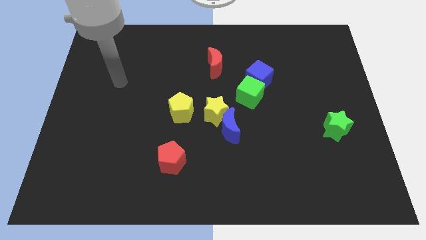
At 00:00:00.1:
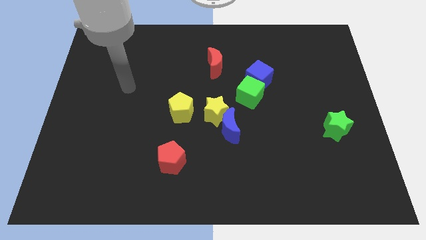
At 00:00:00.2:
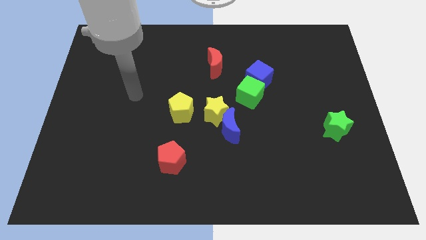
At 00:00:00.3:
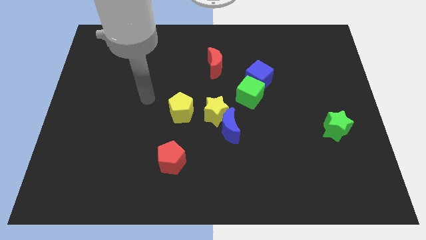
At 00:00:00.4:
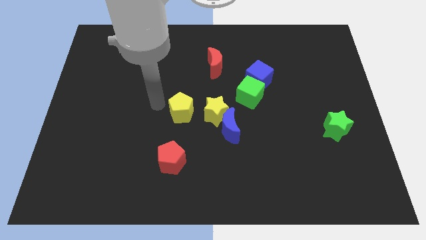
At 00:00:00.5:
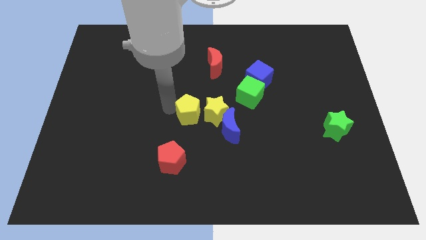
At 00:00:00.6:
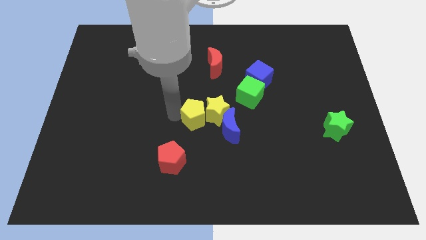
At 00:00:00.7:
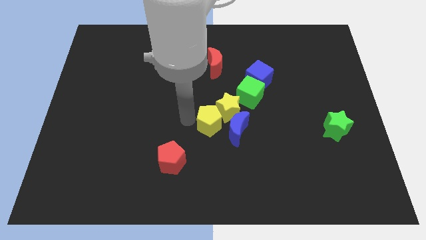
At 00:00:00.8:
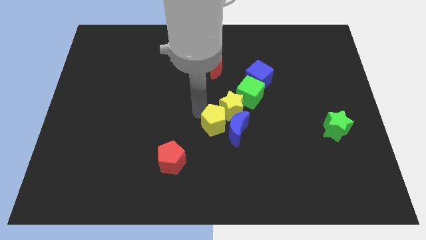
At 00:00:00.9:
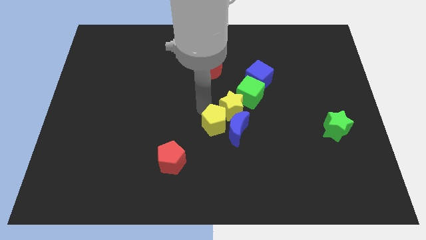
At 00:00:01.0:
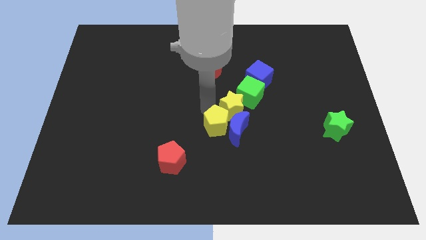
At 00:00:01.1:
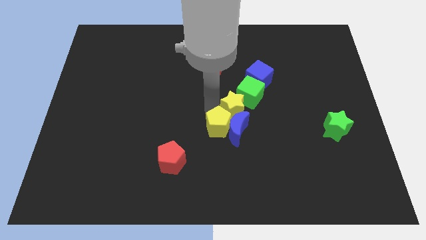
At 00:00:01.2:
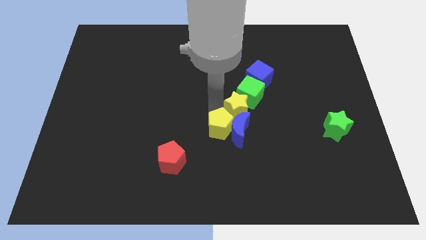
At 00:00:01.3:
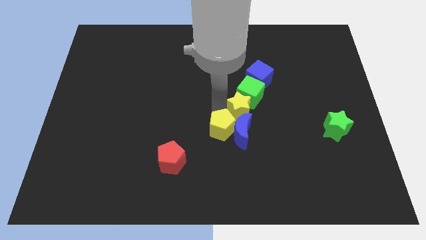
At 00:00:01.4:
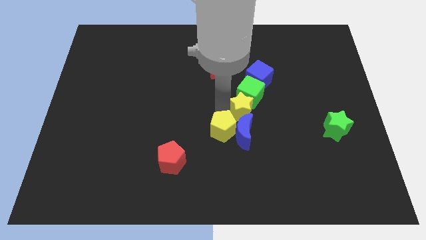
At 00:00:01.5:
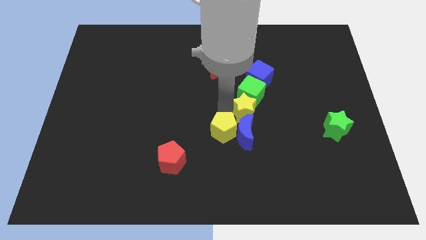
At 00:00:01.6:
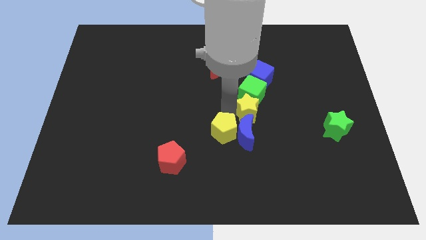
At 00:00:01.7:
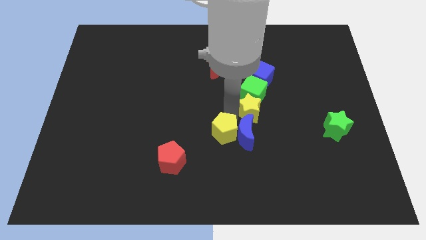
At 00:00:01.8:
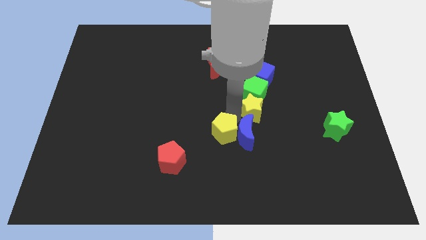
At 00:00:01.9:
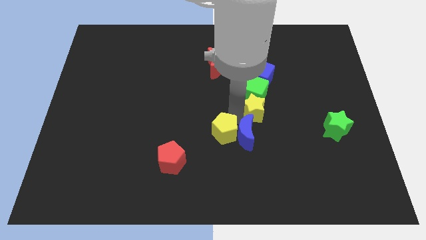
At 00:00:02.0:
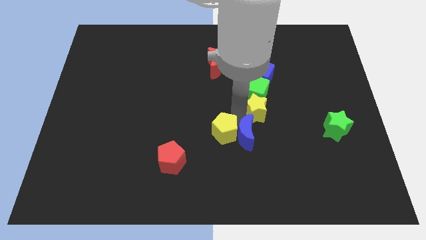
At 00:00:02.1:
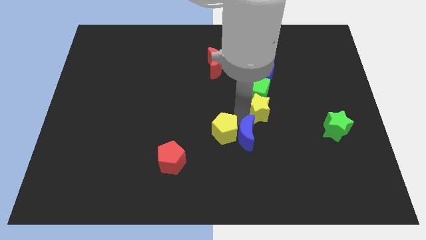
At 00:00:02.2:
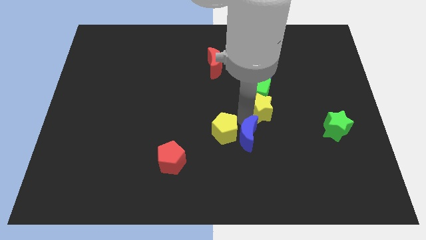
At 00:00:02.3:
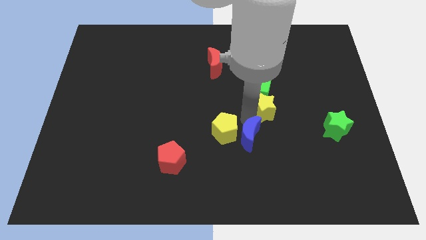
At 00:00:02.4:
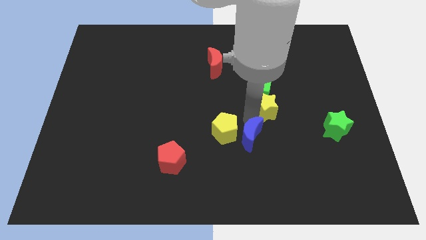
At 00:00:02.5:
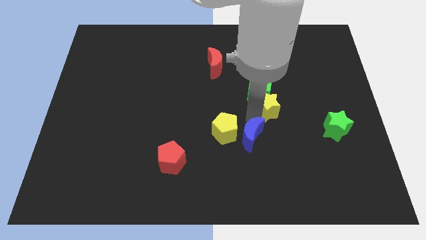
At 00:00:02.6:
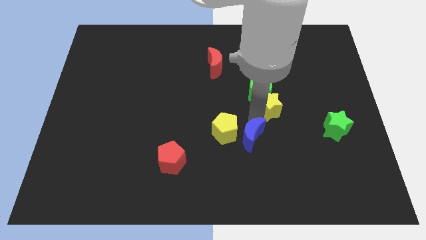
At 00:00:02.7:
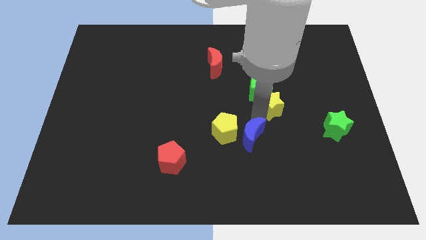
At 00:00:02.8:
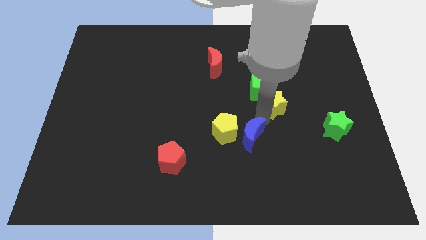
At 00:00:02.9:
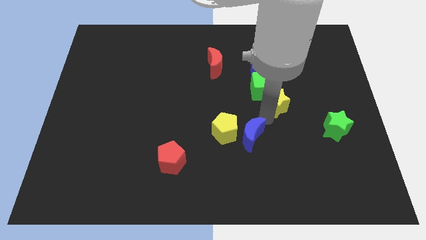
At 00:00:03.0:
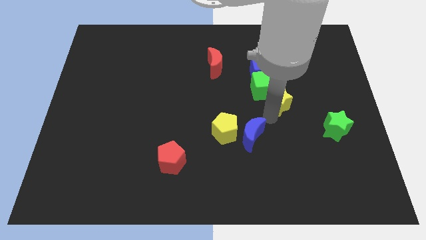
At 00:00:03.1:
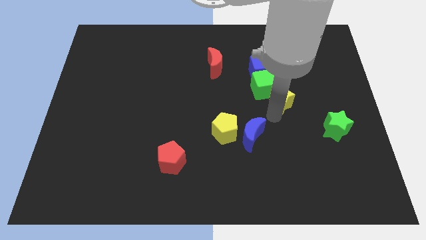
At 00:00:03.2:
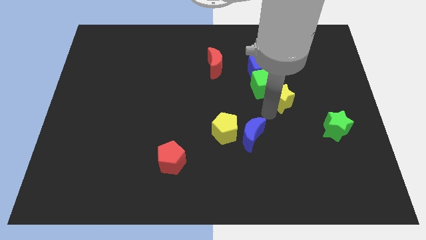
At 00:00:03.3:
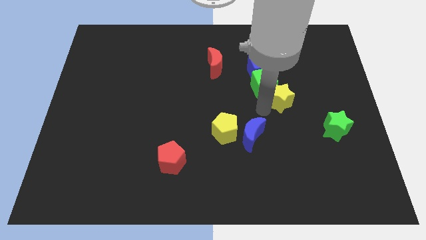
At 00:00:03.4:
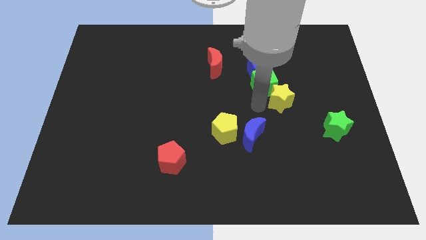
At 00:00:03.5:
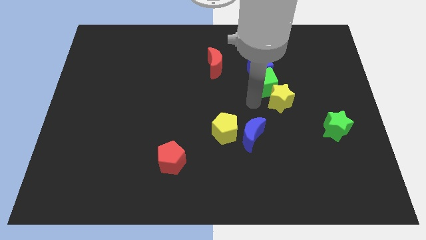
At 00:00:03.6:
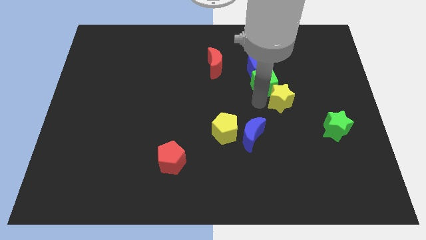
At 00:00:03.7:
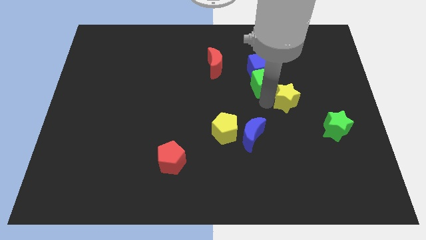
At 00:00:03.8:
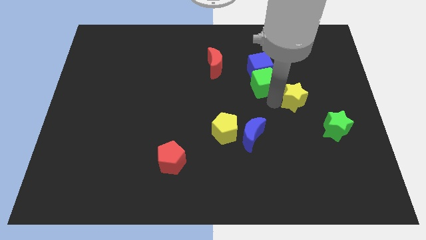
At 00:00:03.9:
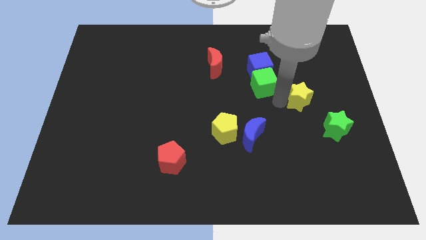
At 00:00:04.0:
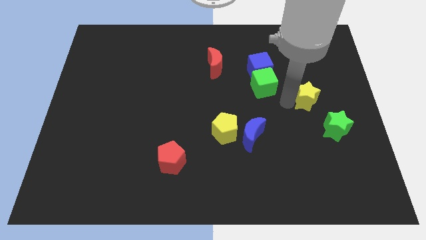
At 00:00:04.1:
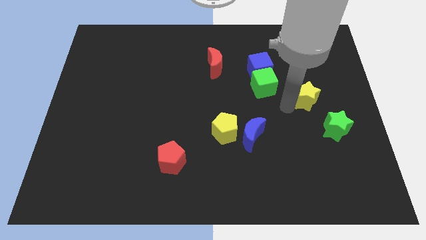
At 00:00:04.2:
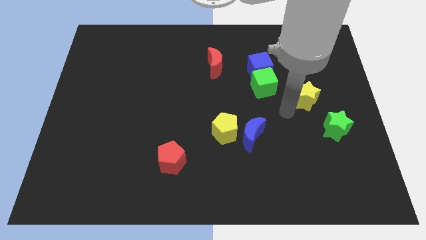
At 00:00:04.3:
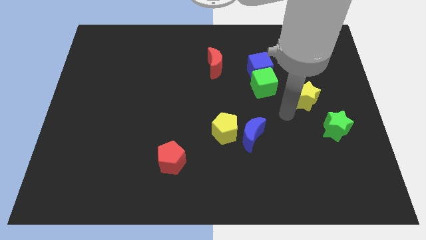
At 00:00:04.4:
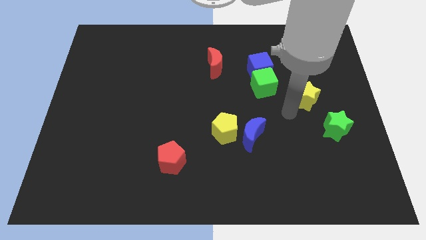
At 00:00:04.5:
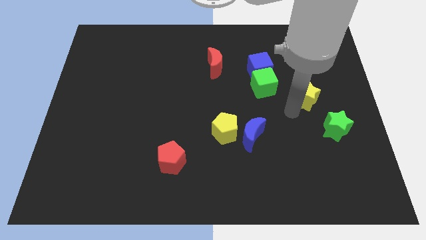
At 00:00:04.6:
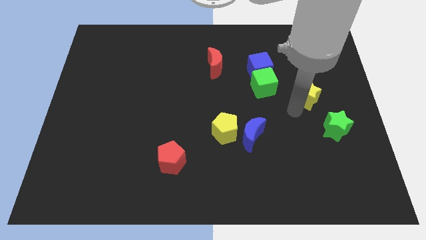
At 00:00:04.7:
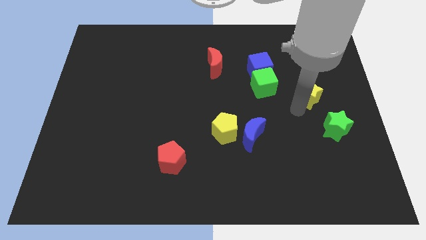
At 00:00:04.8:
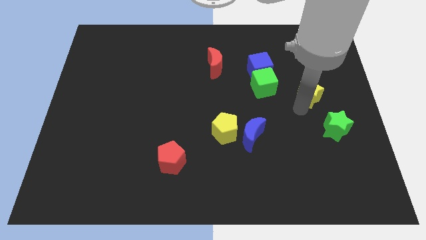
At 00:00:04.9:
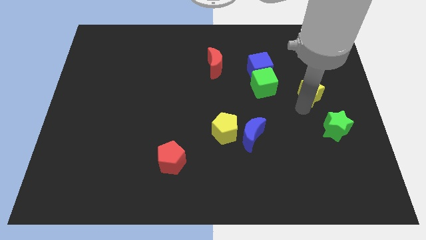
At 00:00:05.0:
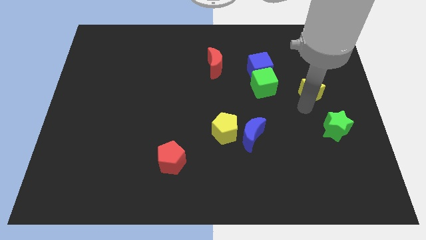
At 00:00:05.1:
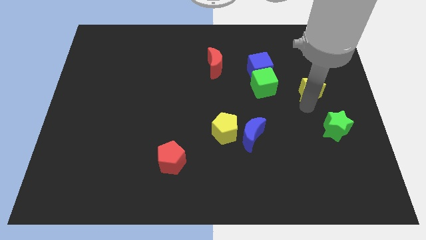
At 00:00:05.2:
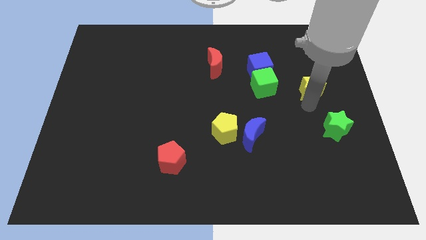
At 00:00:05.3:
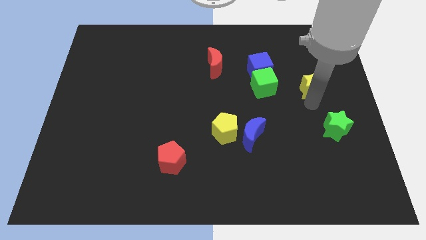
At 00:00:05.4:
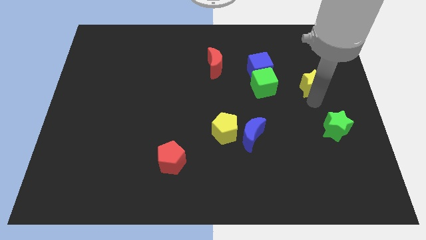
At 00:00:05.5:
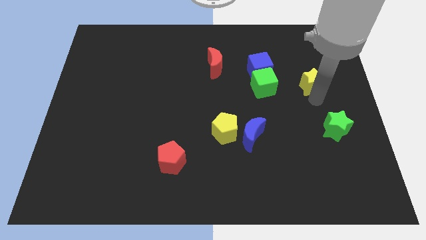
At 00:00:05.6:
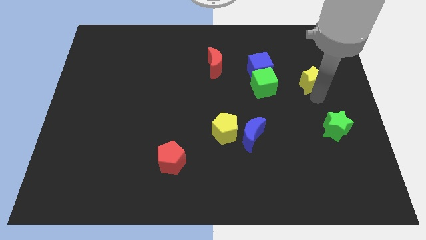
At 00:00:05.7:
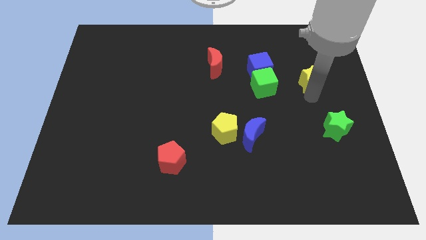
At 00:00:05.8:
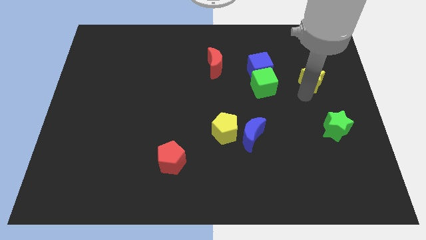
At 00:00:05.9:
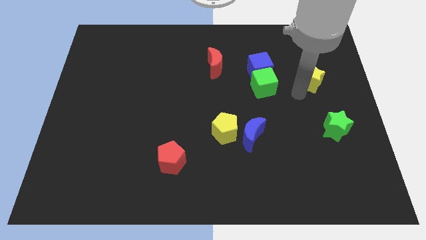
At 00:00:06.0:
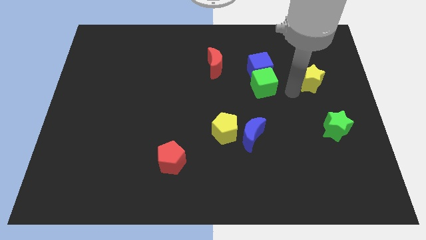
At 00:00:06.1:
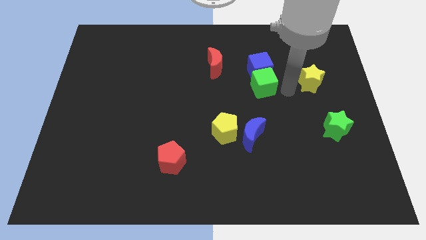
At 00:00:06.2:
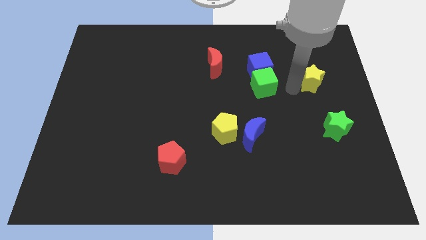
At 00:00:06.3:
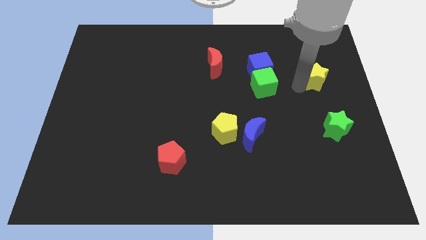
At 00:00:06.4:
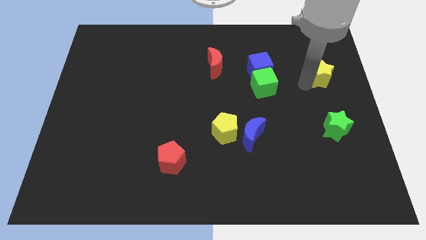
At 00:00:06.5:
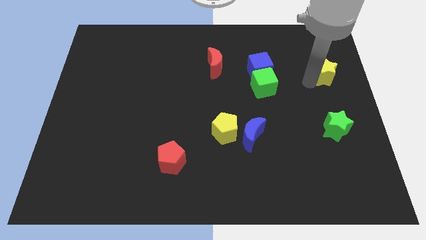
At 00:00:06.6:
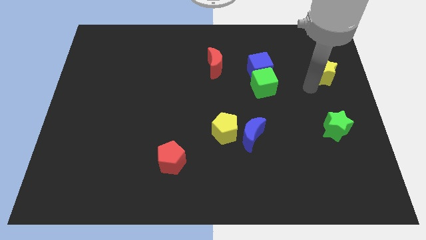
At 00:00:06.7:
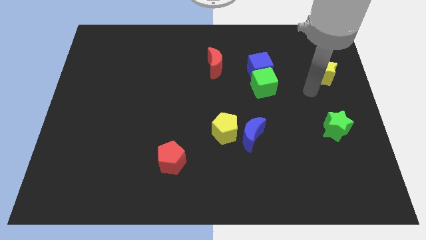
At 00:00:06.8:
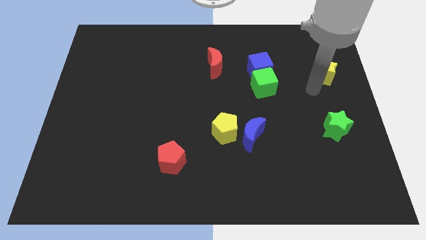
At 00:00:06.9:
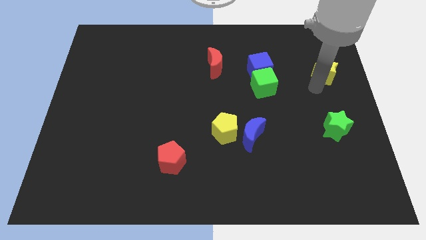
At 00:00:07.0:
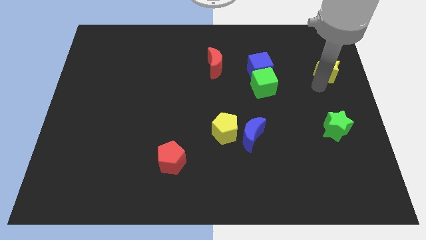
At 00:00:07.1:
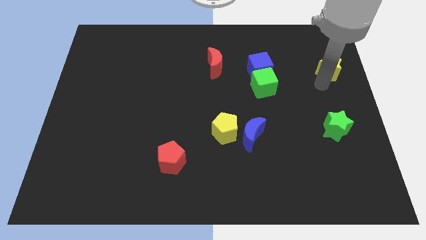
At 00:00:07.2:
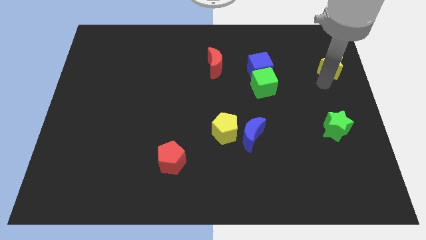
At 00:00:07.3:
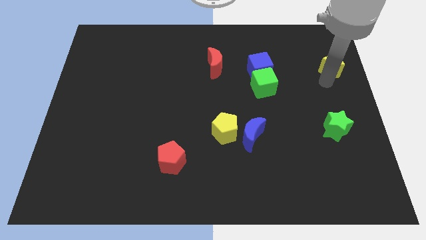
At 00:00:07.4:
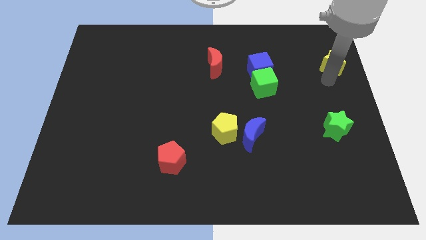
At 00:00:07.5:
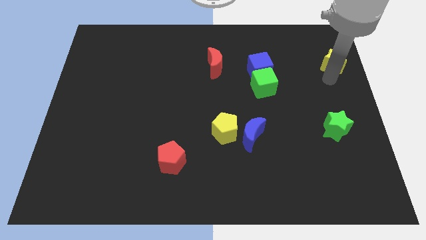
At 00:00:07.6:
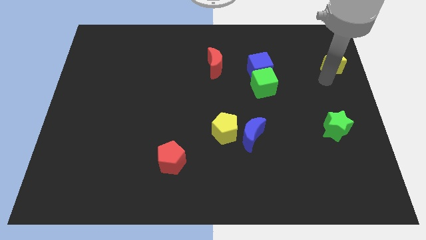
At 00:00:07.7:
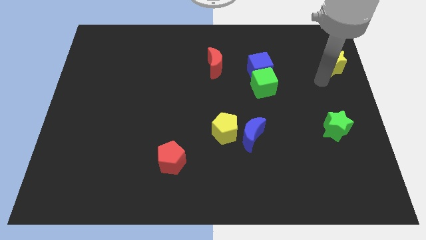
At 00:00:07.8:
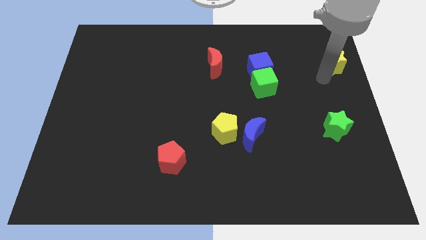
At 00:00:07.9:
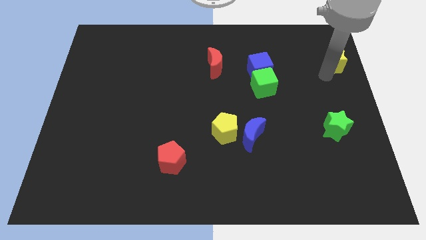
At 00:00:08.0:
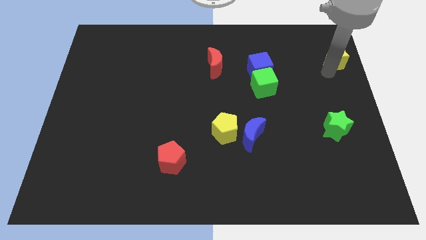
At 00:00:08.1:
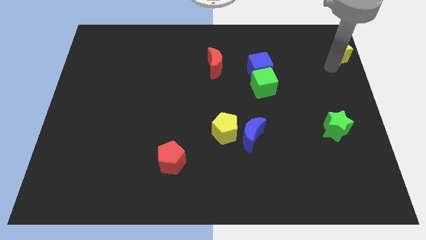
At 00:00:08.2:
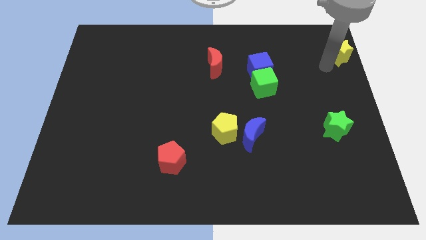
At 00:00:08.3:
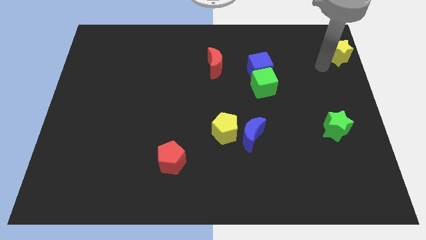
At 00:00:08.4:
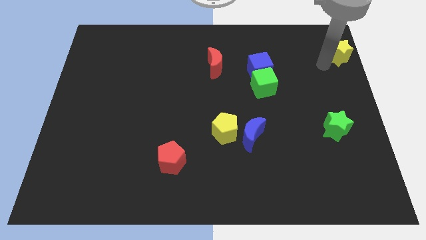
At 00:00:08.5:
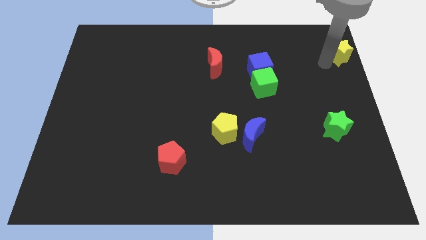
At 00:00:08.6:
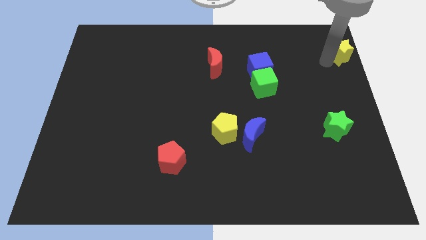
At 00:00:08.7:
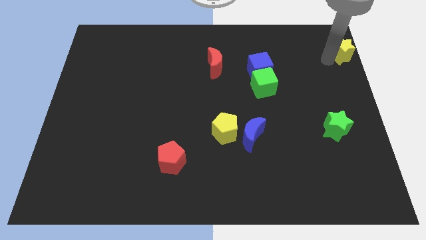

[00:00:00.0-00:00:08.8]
slide the yellow star to the top right
